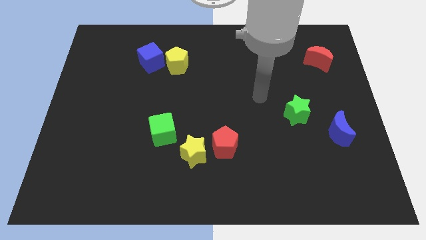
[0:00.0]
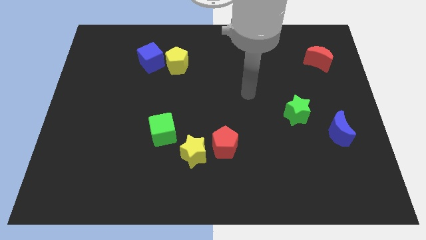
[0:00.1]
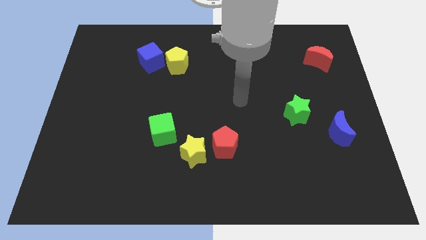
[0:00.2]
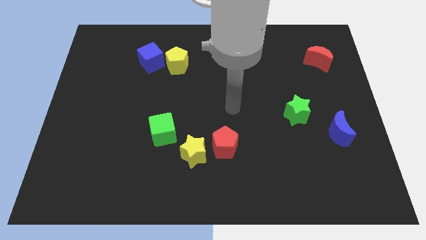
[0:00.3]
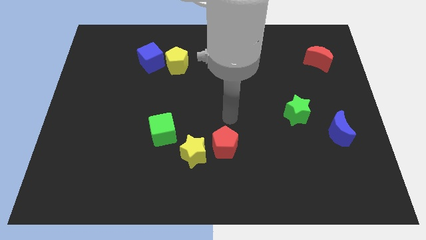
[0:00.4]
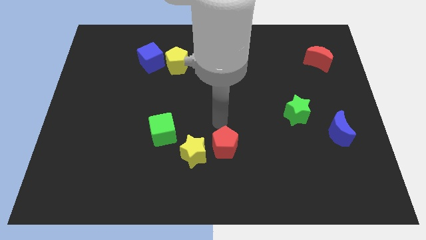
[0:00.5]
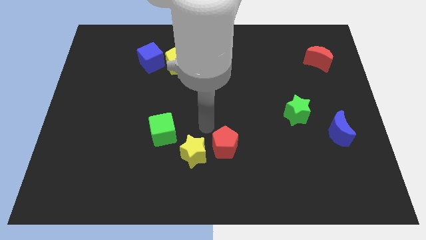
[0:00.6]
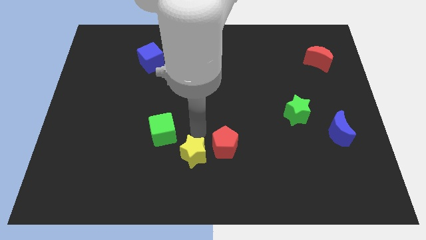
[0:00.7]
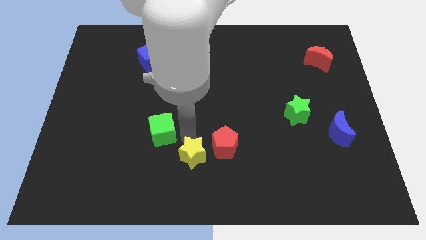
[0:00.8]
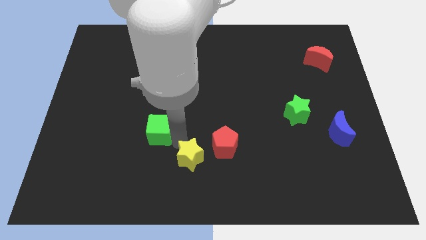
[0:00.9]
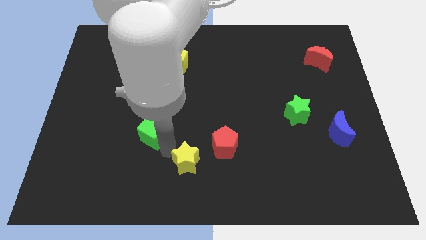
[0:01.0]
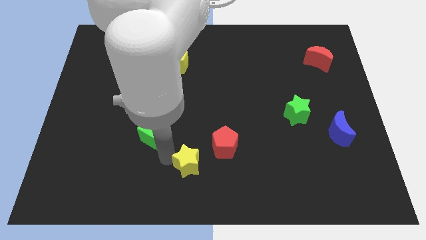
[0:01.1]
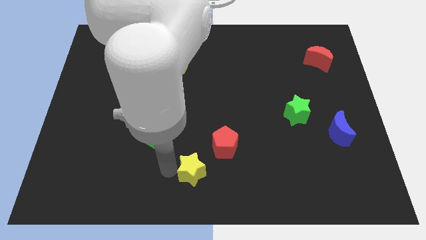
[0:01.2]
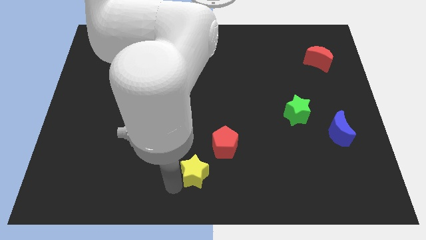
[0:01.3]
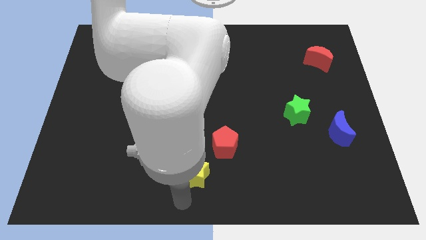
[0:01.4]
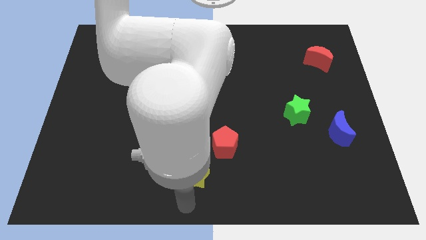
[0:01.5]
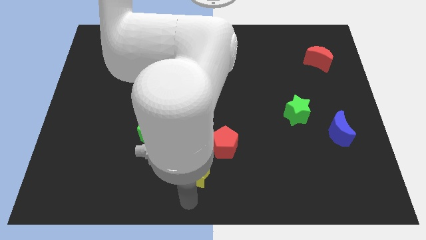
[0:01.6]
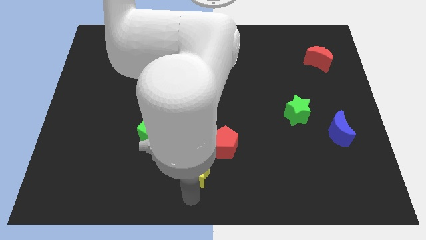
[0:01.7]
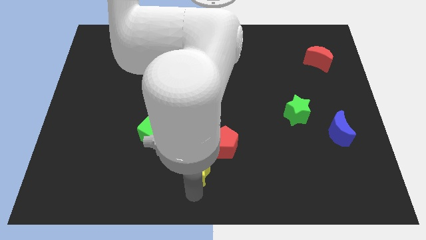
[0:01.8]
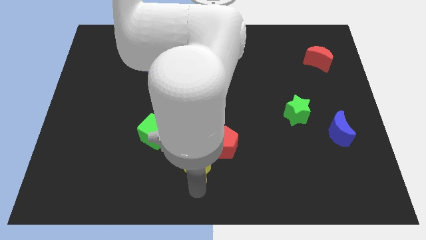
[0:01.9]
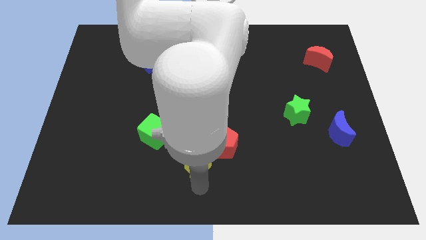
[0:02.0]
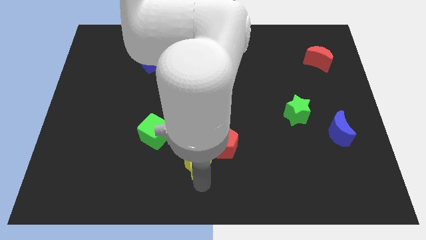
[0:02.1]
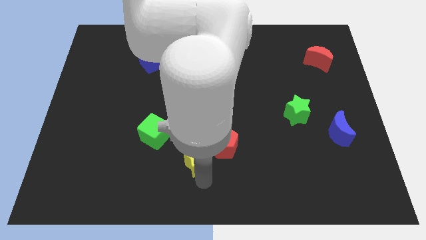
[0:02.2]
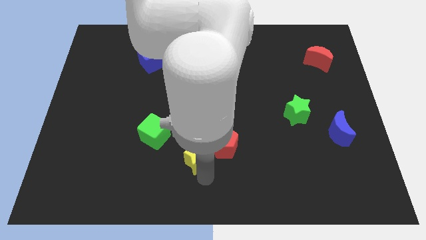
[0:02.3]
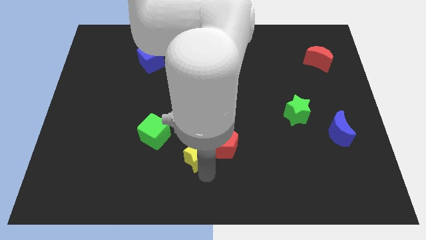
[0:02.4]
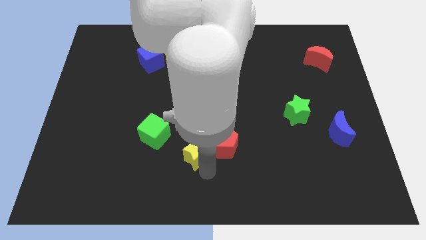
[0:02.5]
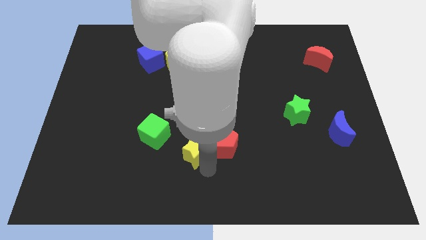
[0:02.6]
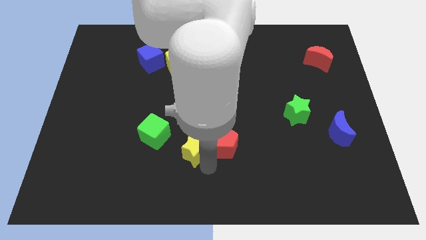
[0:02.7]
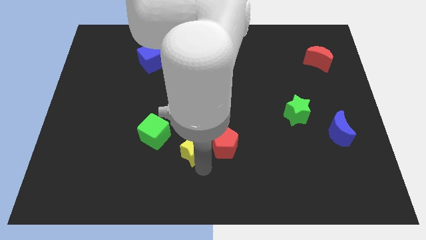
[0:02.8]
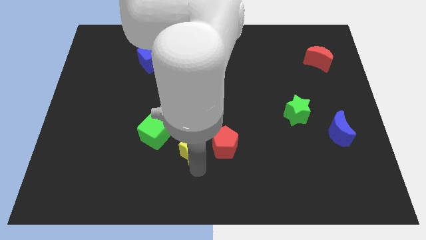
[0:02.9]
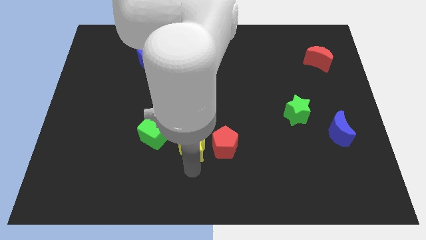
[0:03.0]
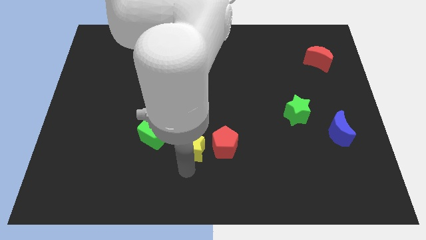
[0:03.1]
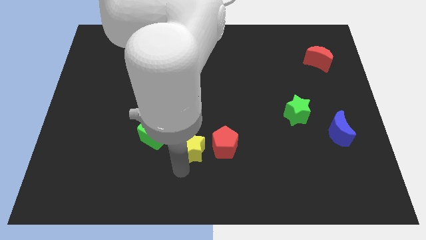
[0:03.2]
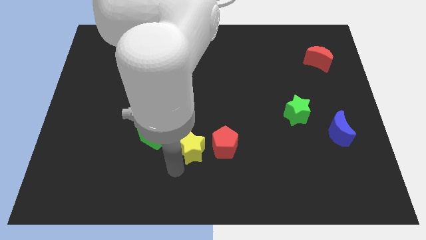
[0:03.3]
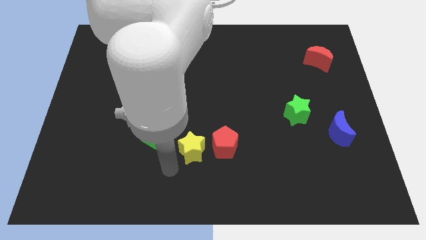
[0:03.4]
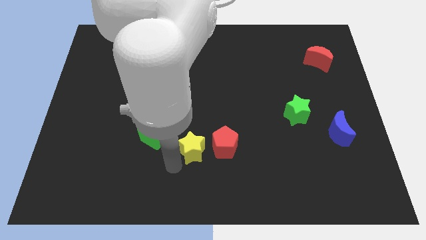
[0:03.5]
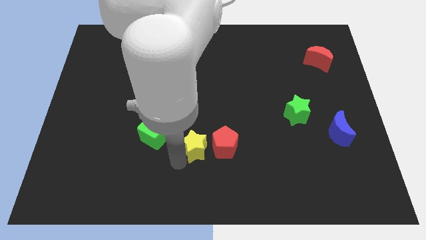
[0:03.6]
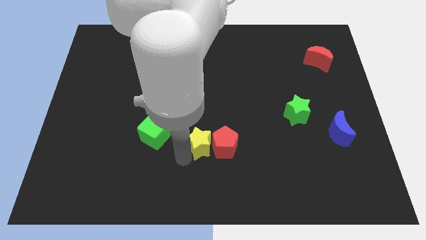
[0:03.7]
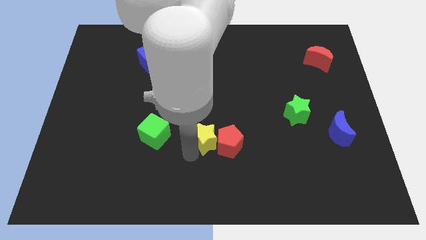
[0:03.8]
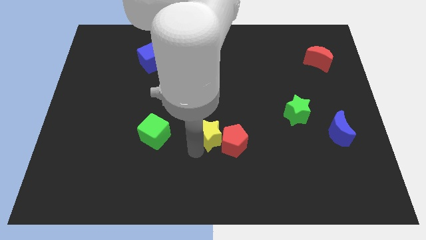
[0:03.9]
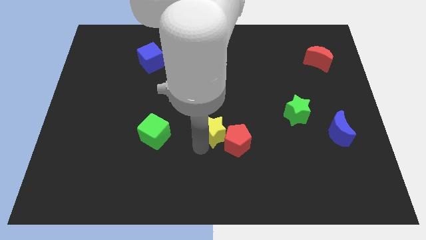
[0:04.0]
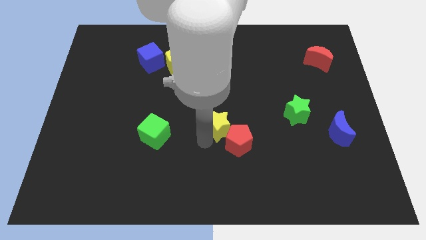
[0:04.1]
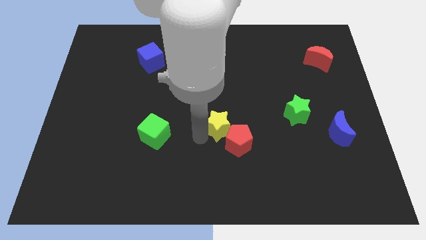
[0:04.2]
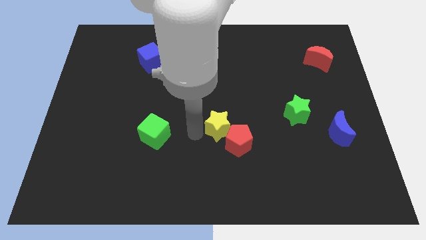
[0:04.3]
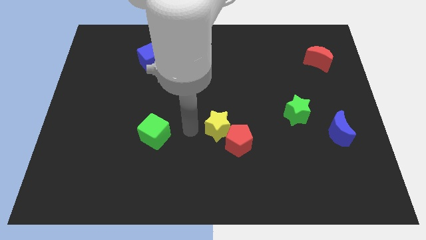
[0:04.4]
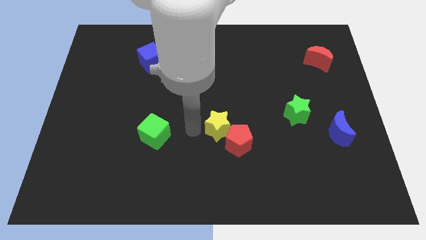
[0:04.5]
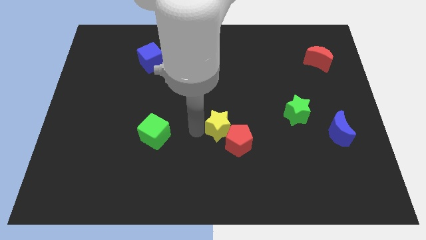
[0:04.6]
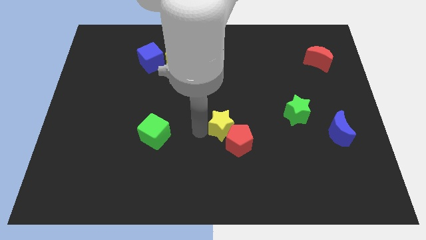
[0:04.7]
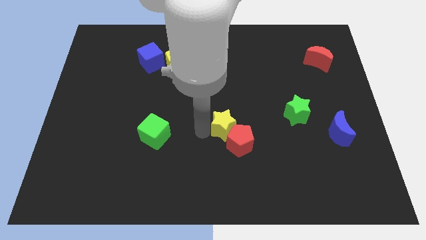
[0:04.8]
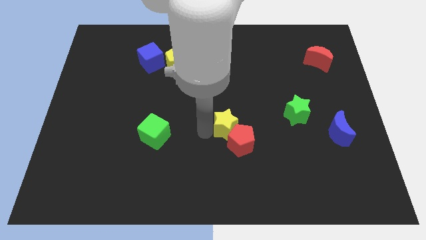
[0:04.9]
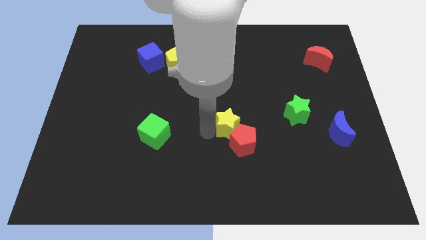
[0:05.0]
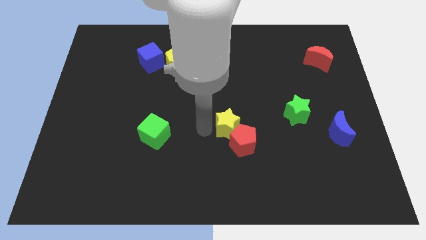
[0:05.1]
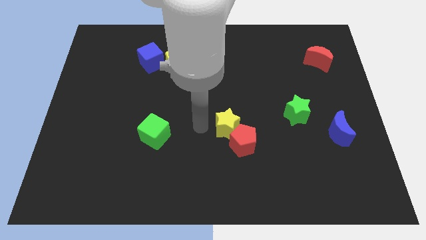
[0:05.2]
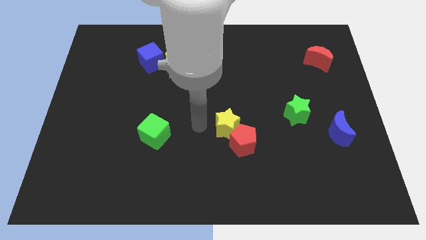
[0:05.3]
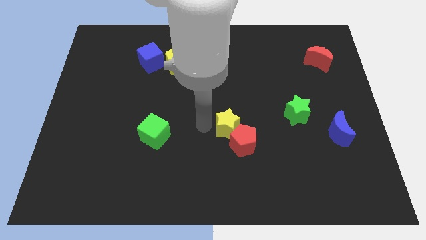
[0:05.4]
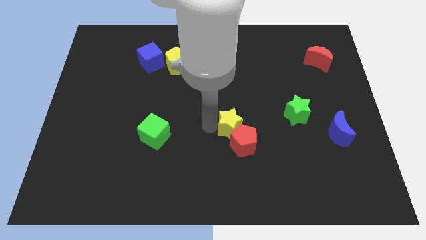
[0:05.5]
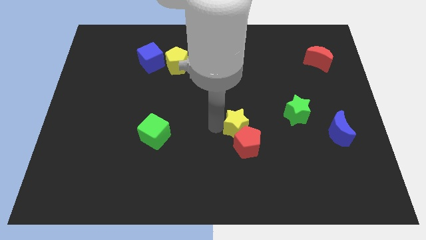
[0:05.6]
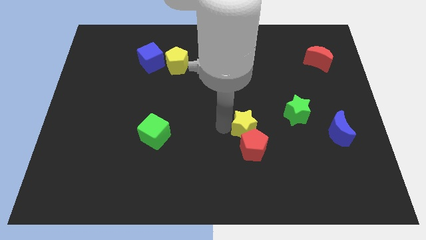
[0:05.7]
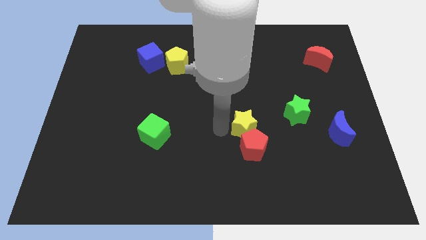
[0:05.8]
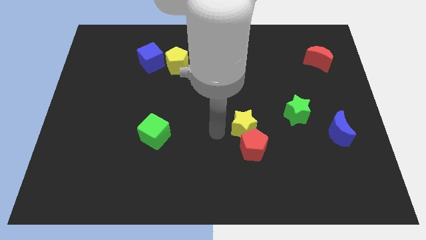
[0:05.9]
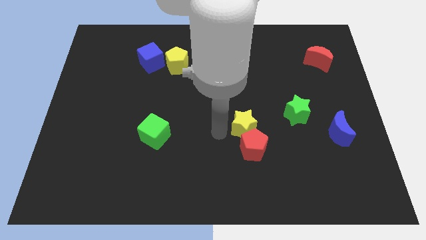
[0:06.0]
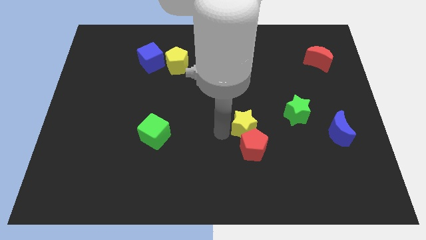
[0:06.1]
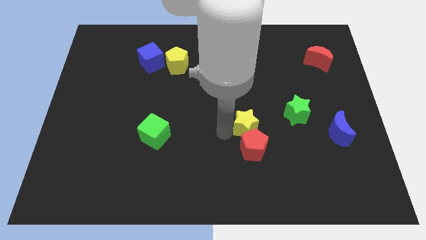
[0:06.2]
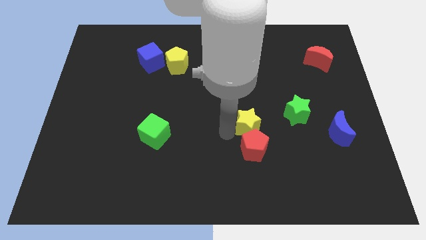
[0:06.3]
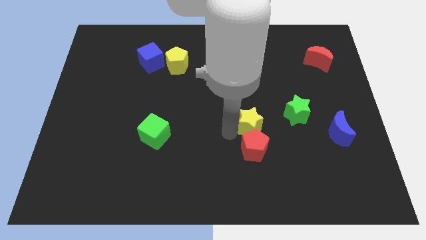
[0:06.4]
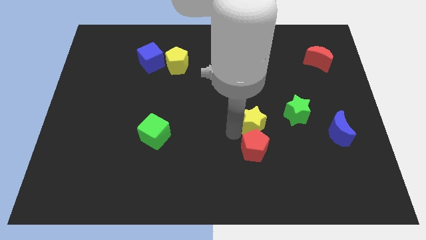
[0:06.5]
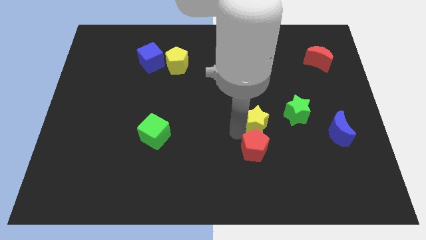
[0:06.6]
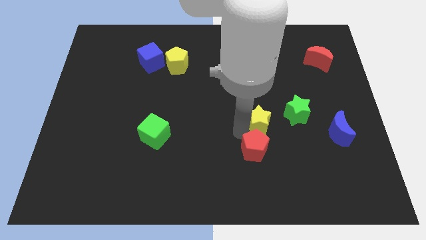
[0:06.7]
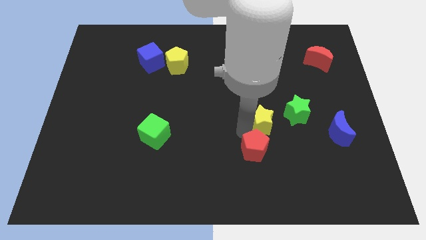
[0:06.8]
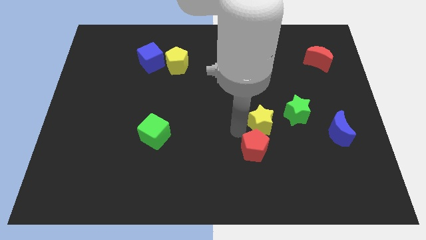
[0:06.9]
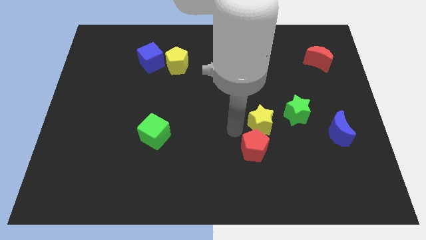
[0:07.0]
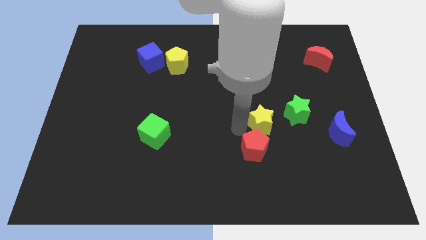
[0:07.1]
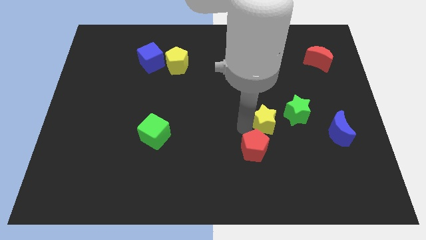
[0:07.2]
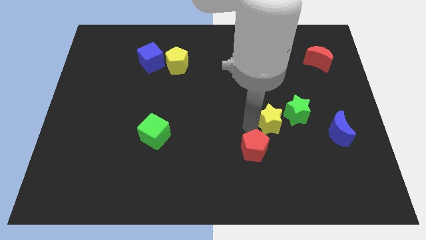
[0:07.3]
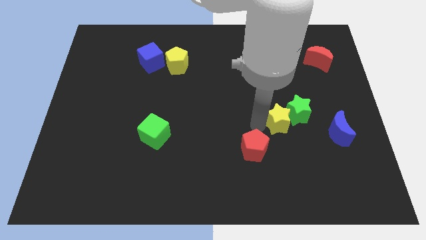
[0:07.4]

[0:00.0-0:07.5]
push the yellow star next to the green star
